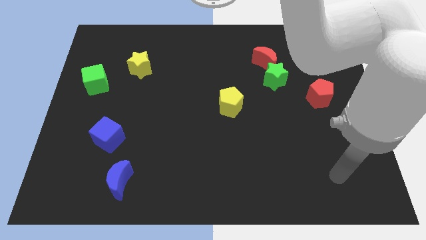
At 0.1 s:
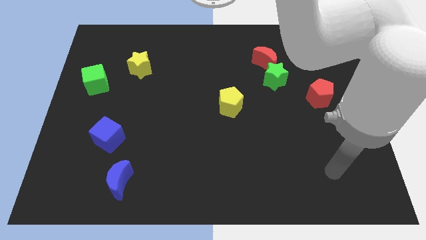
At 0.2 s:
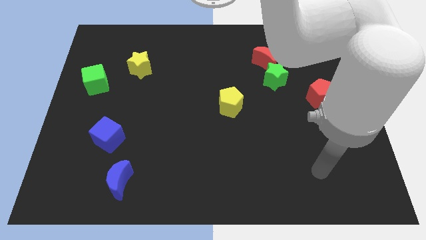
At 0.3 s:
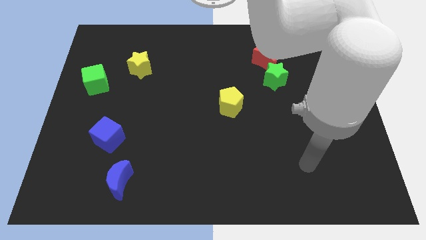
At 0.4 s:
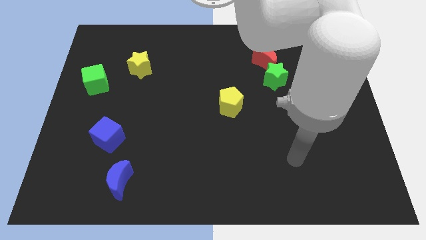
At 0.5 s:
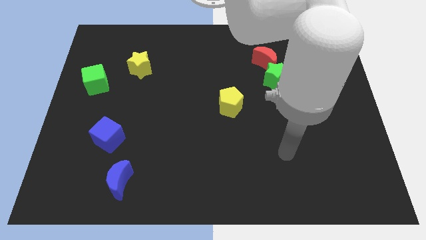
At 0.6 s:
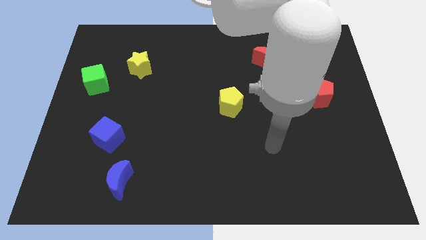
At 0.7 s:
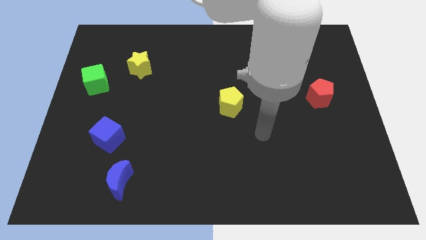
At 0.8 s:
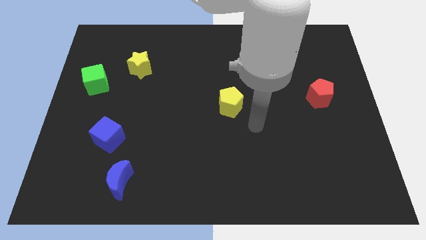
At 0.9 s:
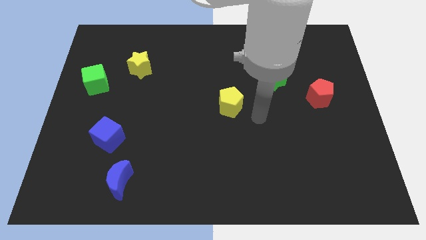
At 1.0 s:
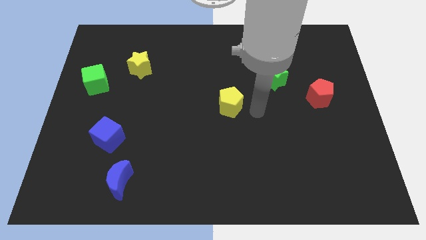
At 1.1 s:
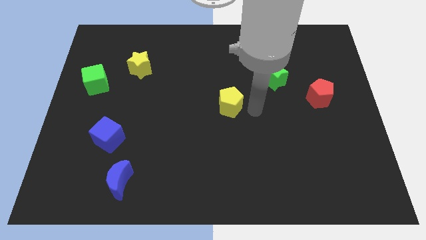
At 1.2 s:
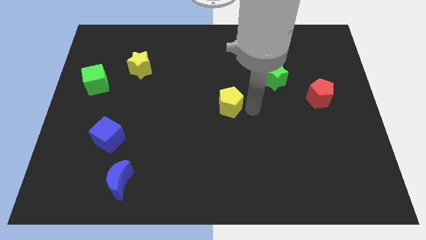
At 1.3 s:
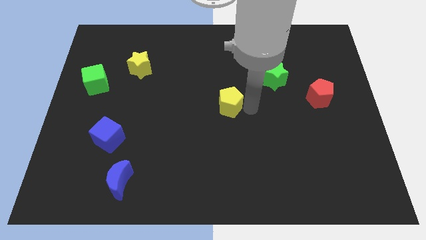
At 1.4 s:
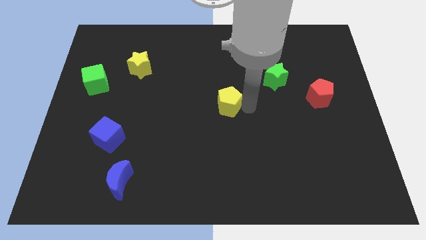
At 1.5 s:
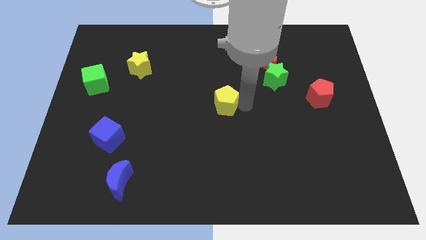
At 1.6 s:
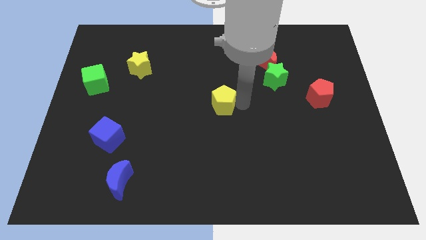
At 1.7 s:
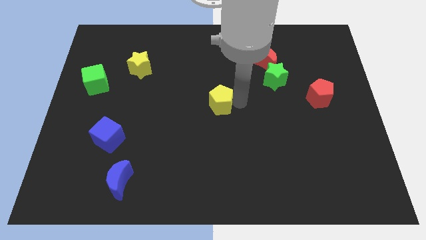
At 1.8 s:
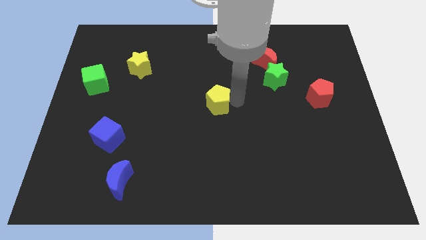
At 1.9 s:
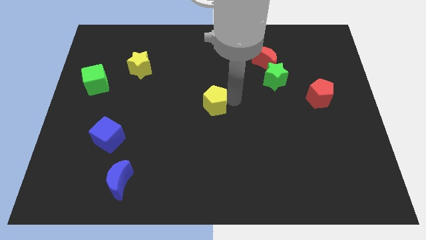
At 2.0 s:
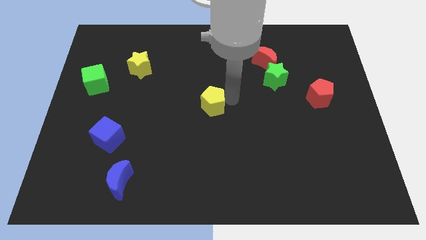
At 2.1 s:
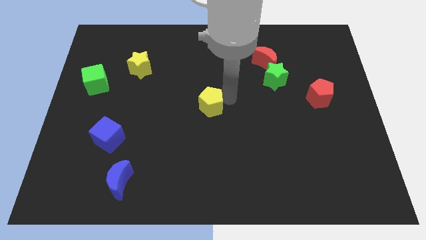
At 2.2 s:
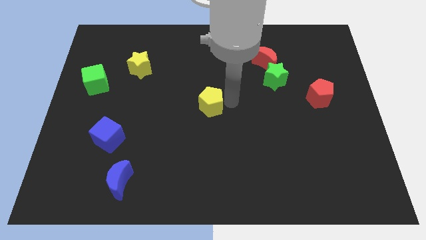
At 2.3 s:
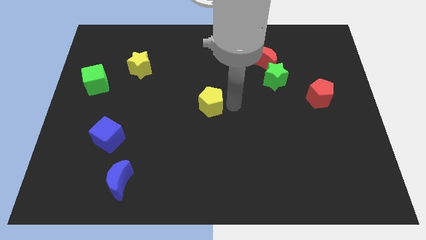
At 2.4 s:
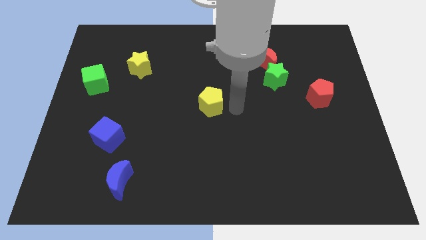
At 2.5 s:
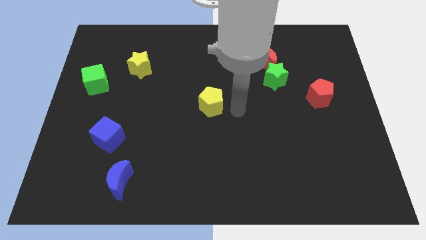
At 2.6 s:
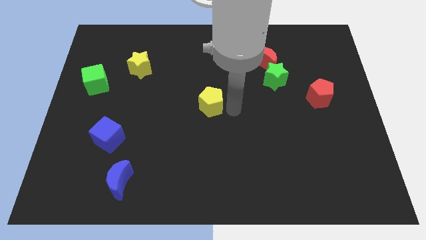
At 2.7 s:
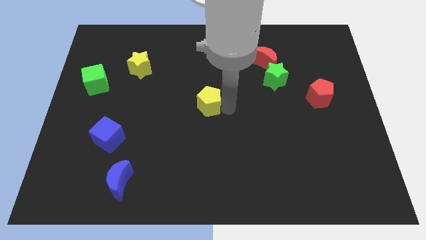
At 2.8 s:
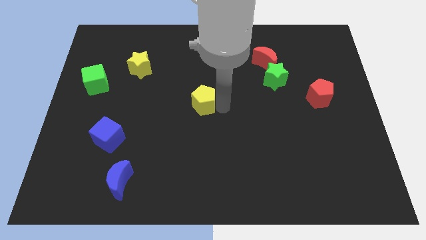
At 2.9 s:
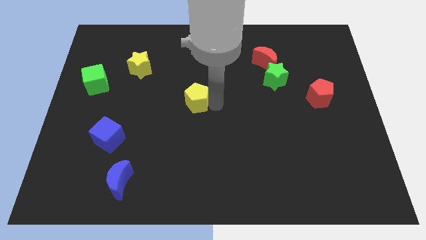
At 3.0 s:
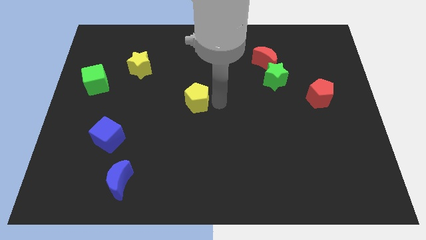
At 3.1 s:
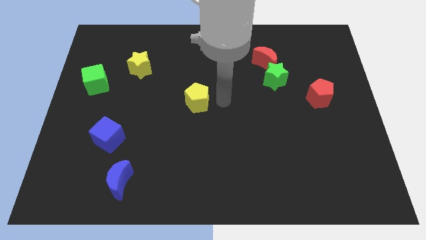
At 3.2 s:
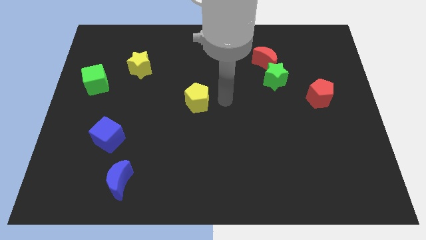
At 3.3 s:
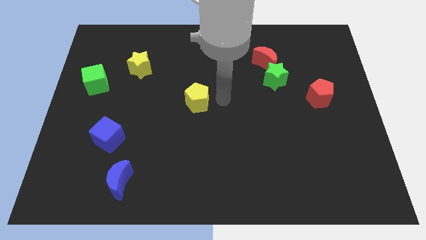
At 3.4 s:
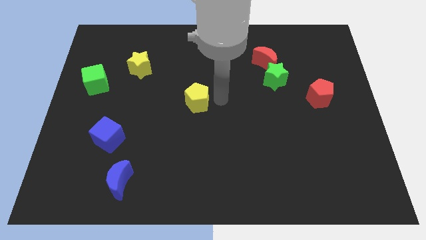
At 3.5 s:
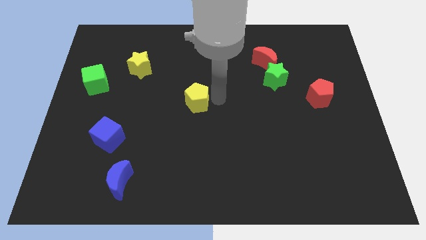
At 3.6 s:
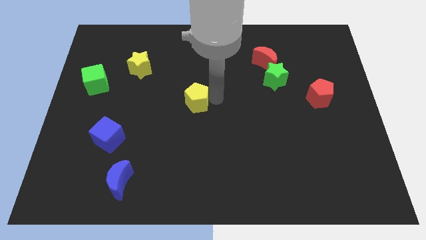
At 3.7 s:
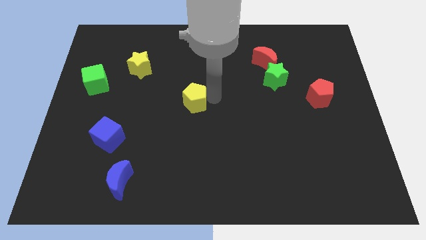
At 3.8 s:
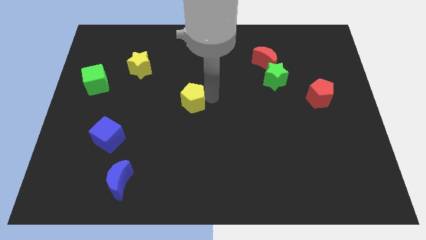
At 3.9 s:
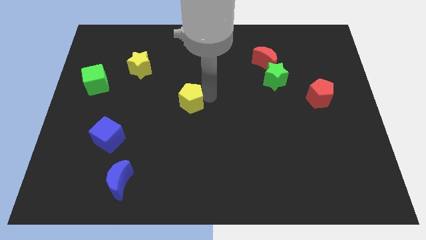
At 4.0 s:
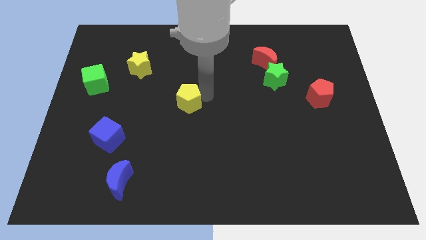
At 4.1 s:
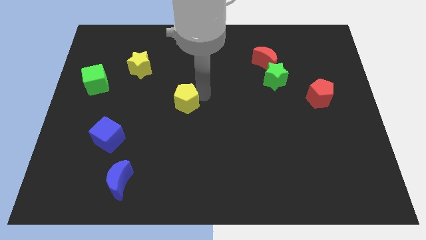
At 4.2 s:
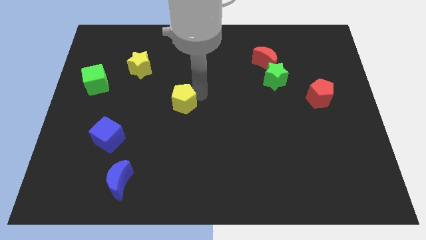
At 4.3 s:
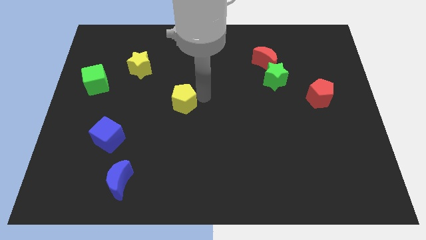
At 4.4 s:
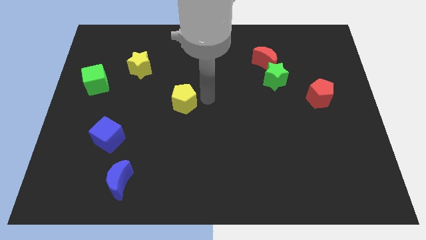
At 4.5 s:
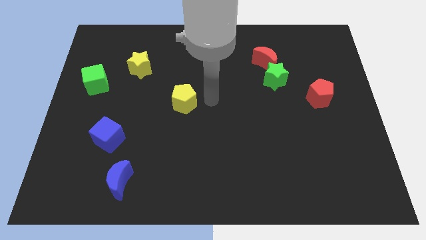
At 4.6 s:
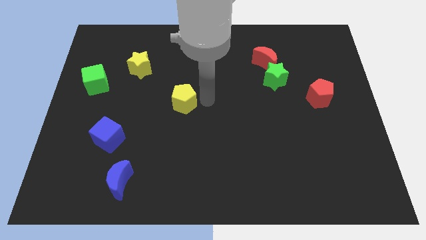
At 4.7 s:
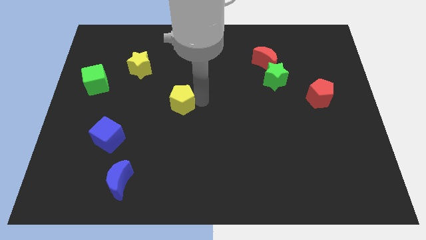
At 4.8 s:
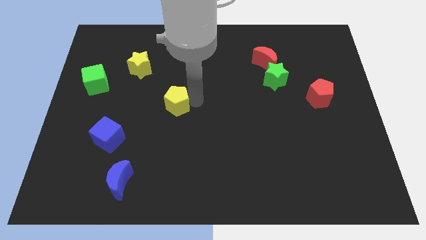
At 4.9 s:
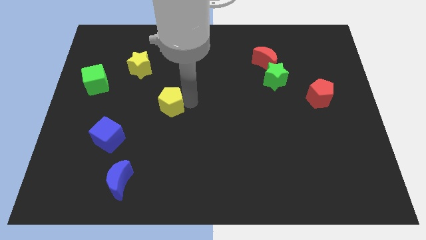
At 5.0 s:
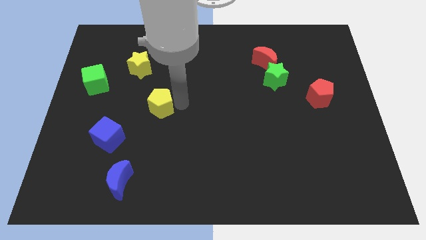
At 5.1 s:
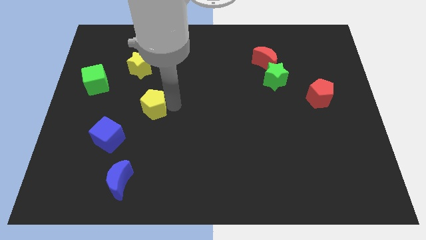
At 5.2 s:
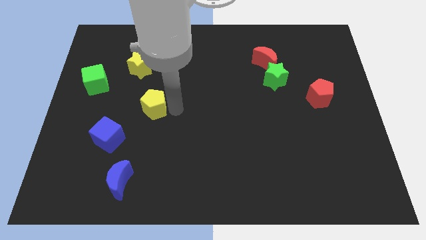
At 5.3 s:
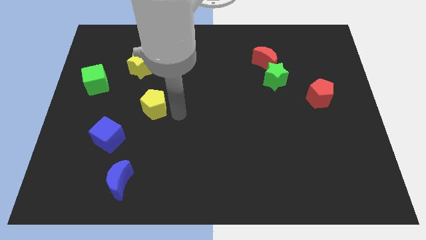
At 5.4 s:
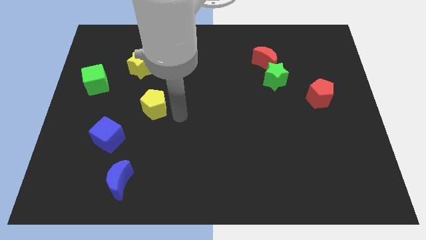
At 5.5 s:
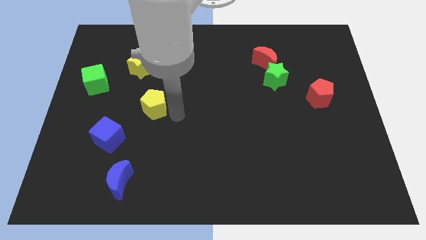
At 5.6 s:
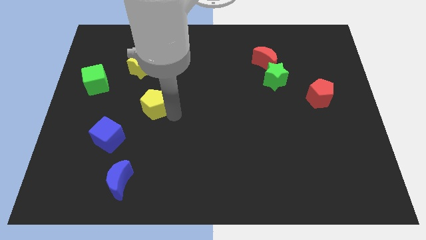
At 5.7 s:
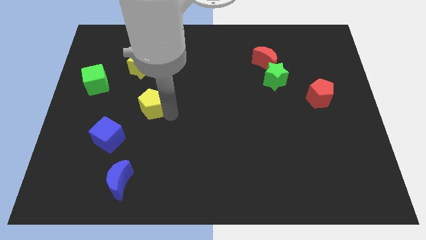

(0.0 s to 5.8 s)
slide the yellow pentagon below the yellow star

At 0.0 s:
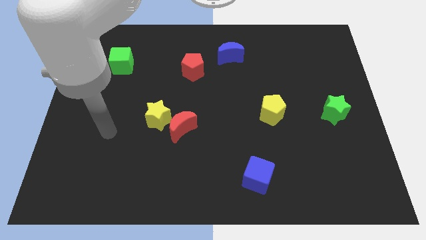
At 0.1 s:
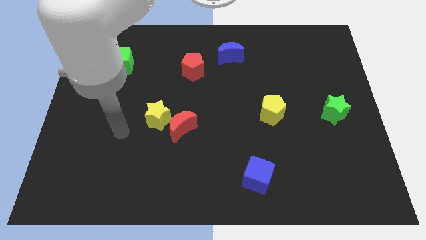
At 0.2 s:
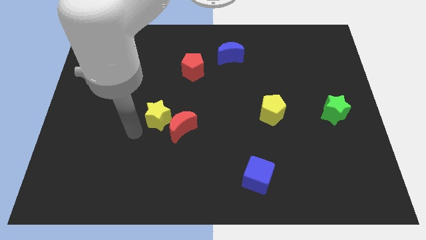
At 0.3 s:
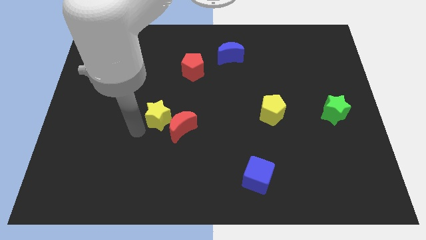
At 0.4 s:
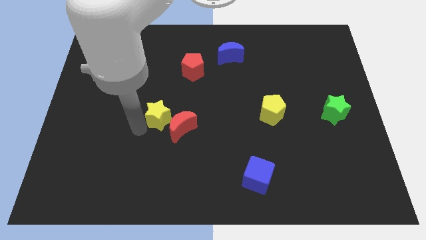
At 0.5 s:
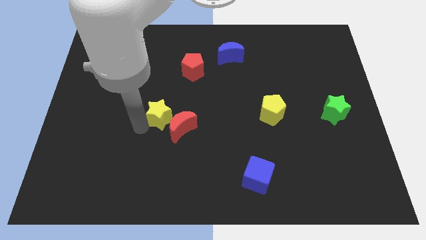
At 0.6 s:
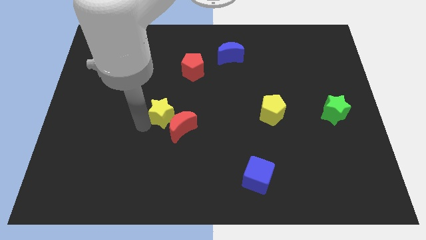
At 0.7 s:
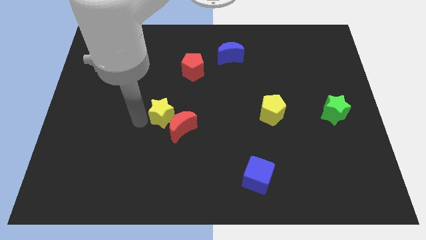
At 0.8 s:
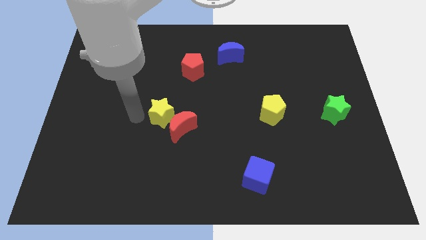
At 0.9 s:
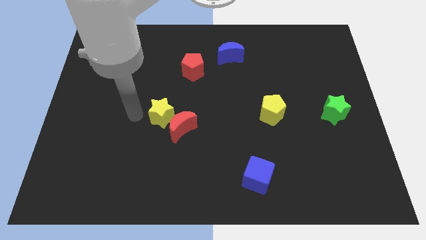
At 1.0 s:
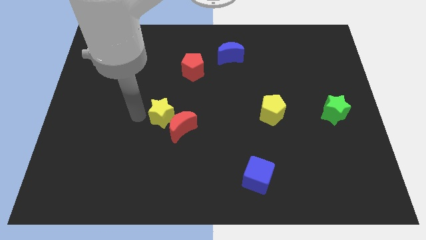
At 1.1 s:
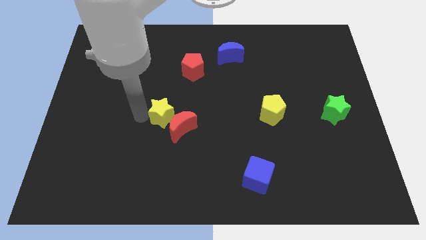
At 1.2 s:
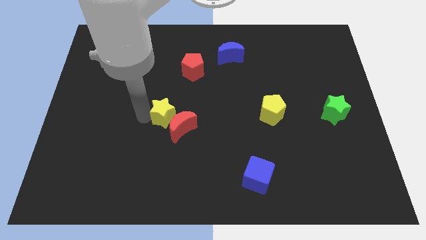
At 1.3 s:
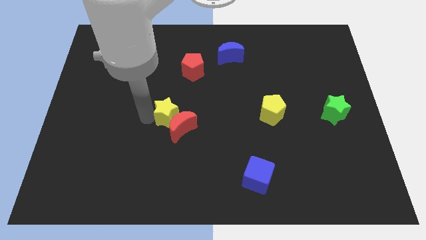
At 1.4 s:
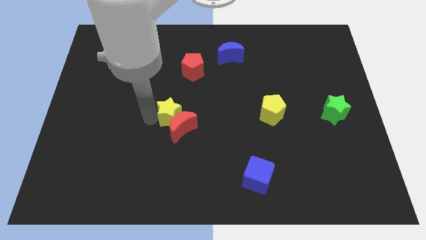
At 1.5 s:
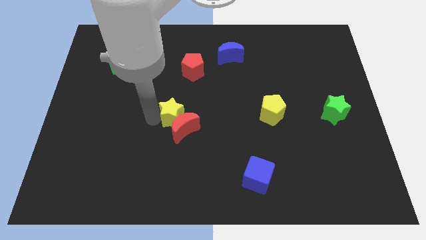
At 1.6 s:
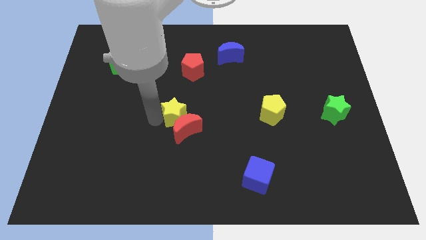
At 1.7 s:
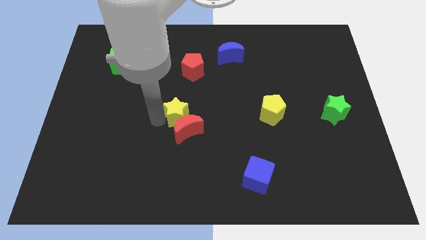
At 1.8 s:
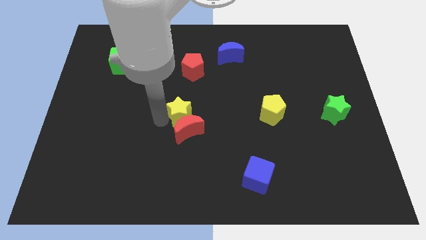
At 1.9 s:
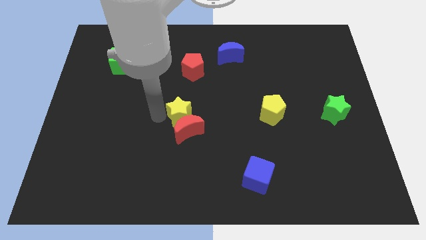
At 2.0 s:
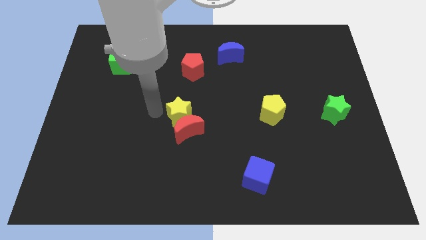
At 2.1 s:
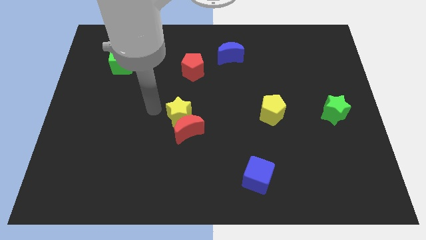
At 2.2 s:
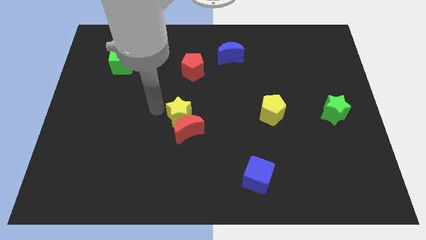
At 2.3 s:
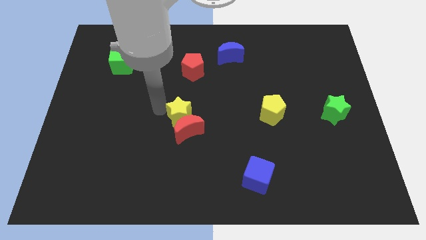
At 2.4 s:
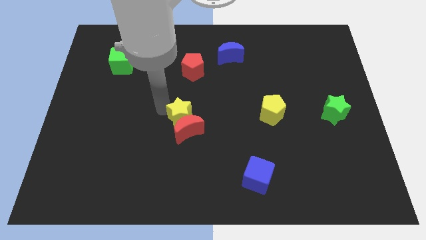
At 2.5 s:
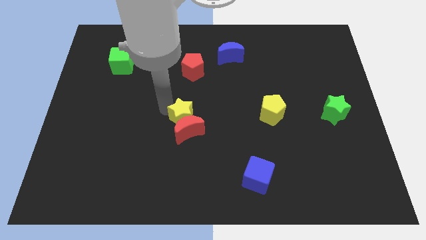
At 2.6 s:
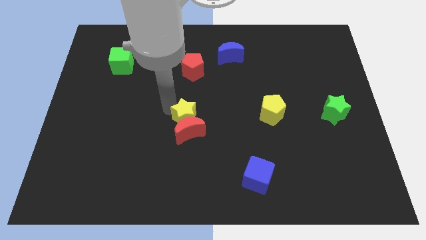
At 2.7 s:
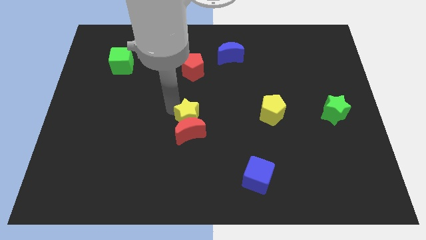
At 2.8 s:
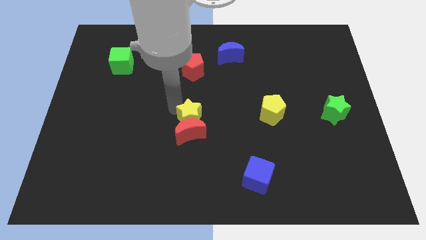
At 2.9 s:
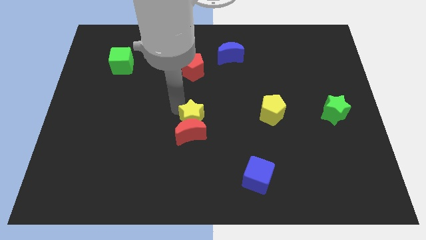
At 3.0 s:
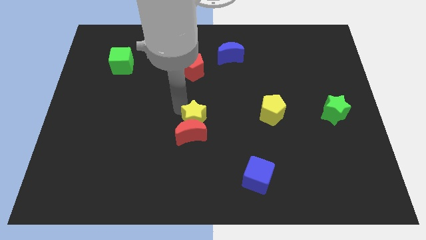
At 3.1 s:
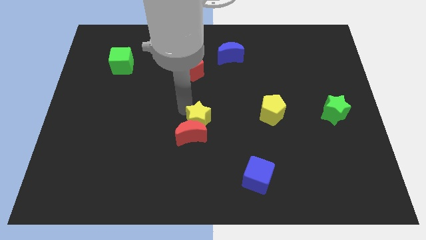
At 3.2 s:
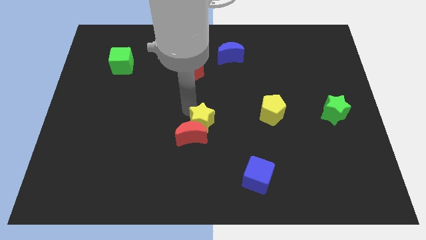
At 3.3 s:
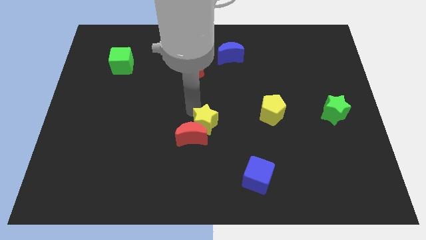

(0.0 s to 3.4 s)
move the yellow star right of the red moon
